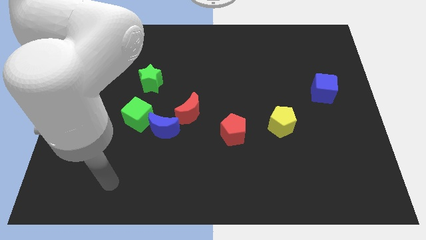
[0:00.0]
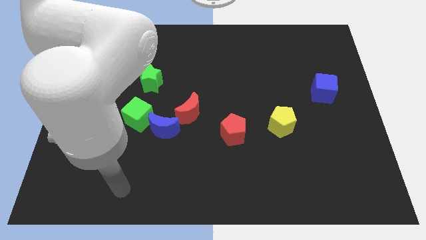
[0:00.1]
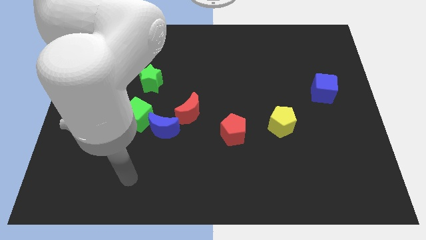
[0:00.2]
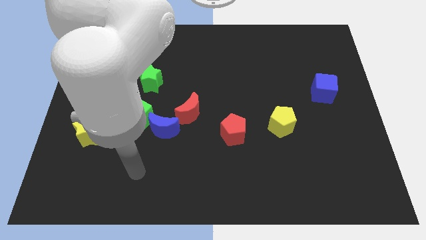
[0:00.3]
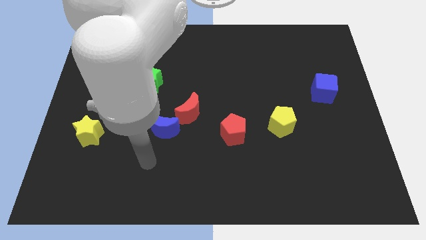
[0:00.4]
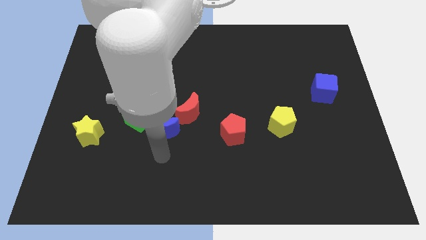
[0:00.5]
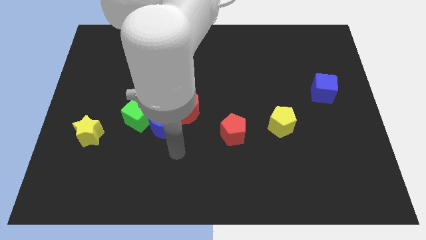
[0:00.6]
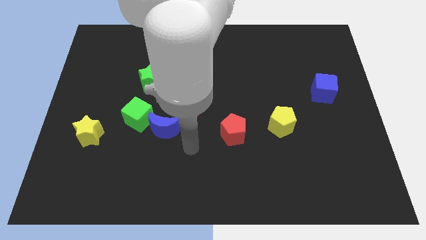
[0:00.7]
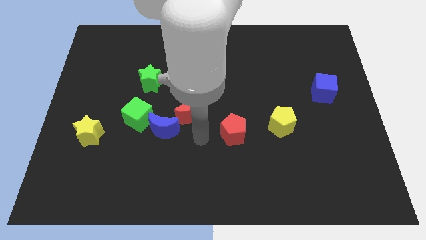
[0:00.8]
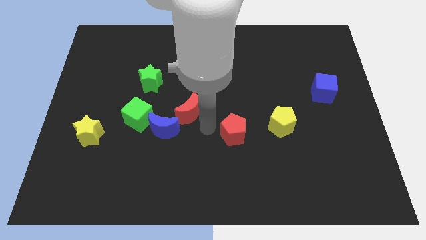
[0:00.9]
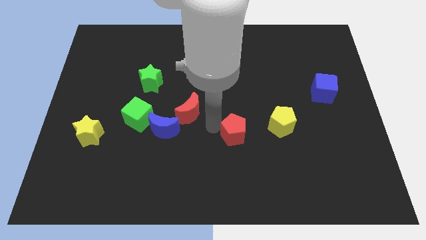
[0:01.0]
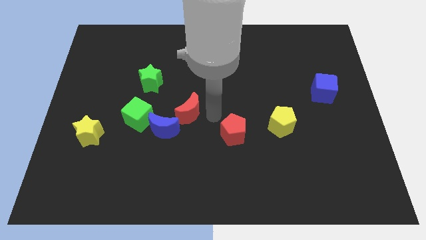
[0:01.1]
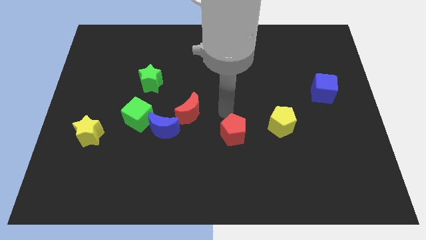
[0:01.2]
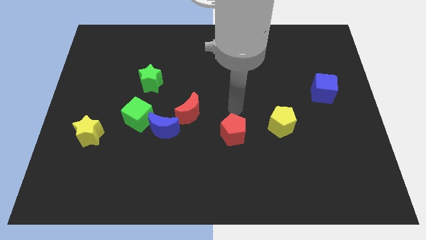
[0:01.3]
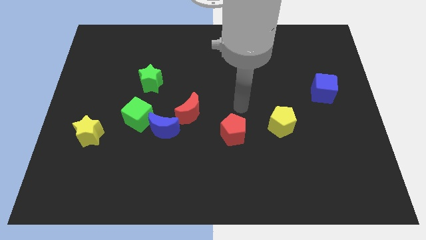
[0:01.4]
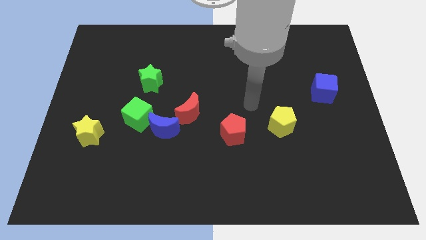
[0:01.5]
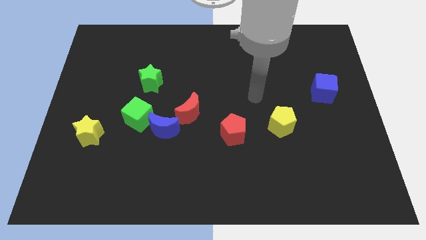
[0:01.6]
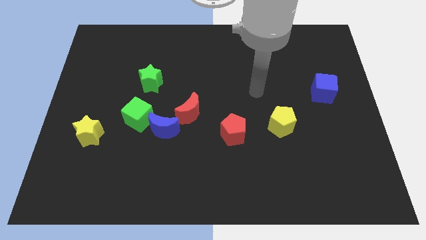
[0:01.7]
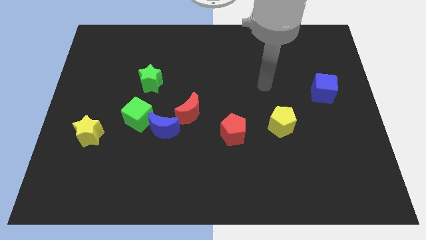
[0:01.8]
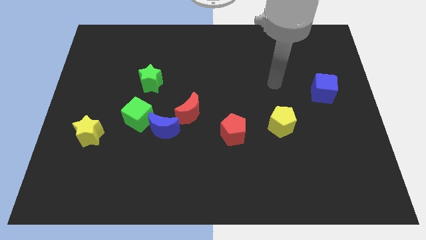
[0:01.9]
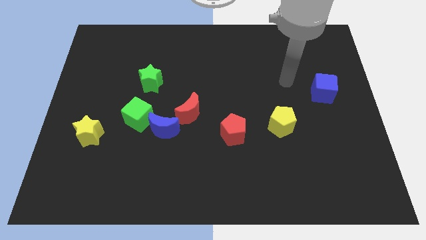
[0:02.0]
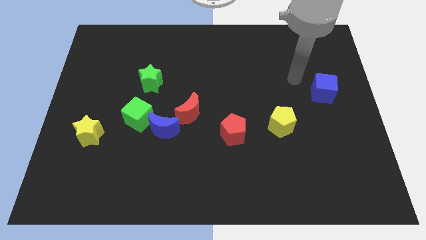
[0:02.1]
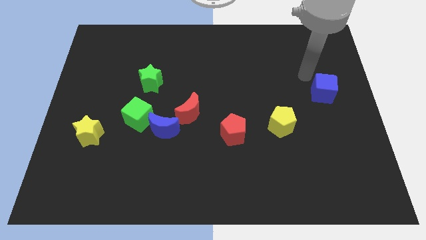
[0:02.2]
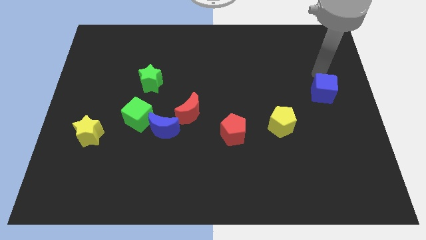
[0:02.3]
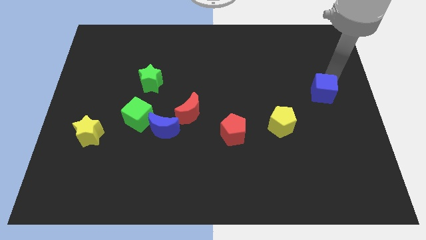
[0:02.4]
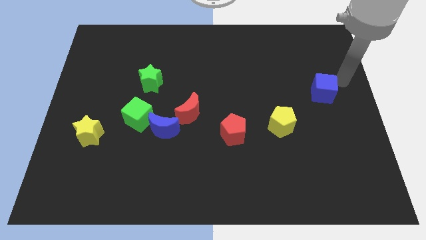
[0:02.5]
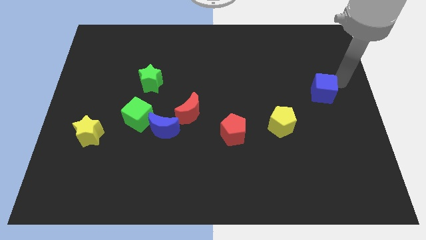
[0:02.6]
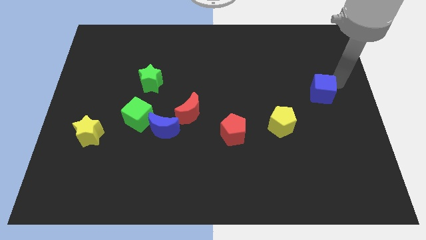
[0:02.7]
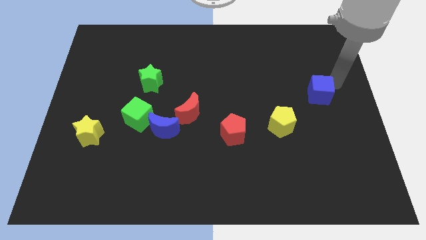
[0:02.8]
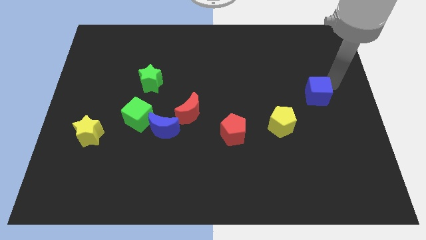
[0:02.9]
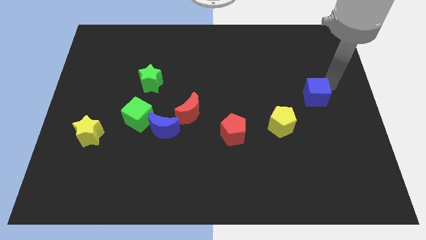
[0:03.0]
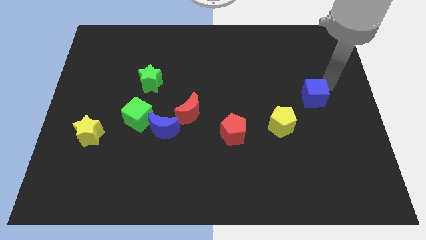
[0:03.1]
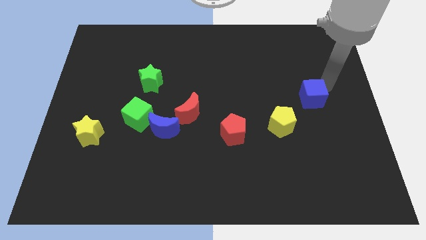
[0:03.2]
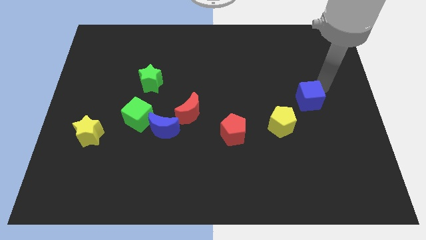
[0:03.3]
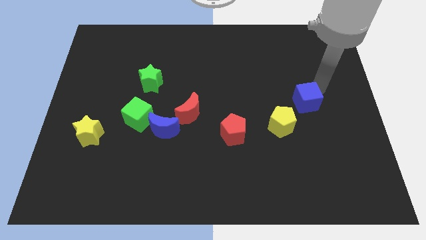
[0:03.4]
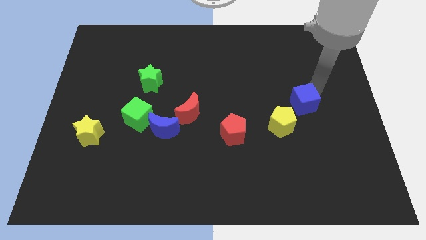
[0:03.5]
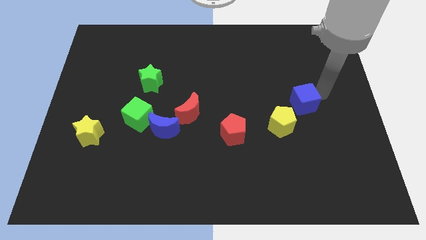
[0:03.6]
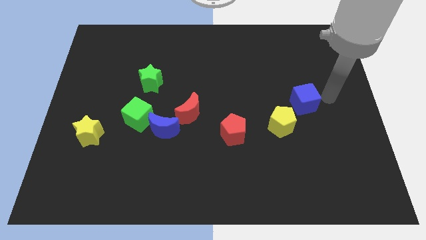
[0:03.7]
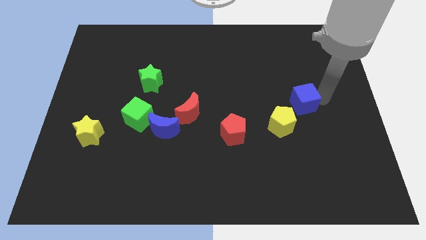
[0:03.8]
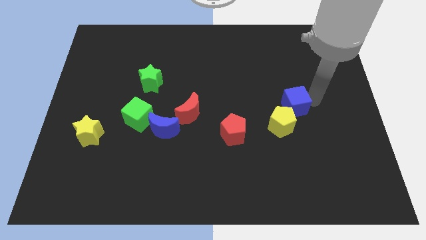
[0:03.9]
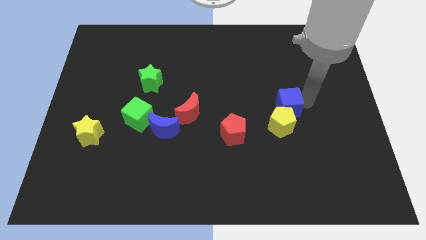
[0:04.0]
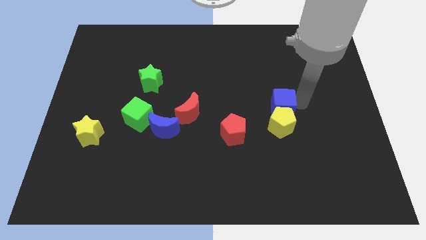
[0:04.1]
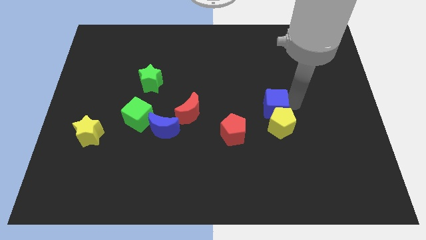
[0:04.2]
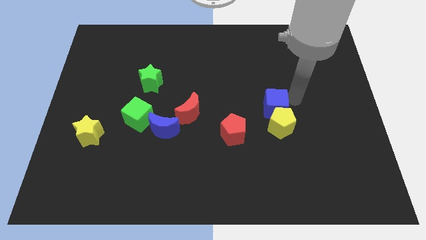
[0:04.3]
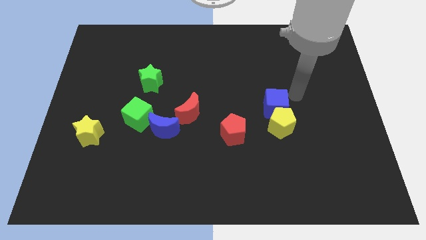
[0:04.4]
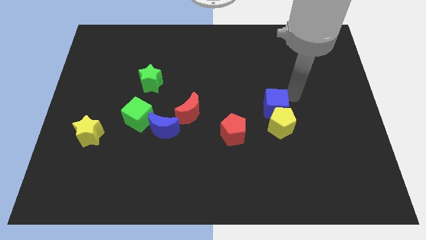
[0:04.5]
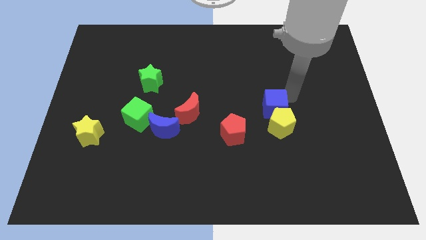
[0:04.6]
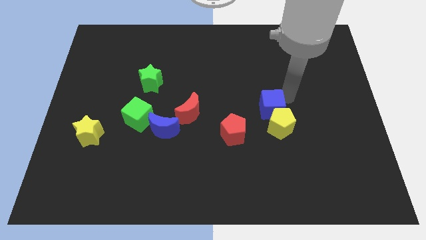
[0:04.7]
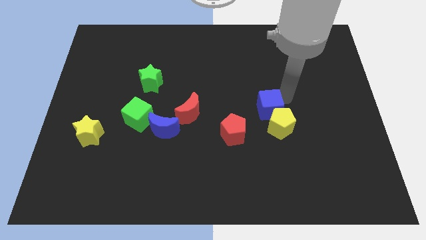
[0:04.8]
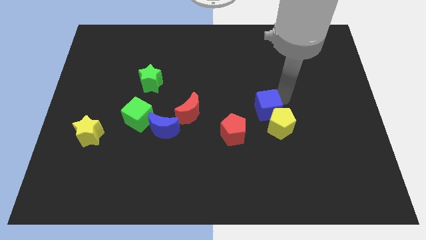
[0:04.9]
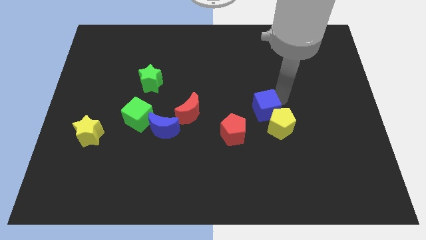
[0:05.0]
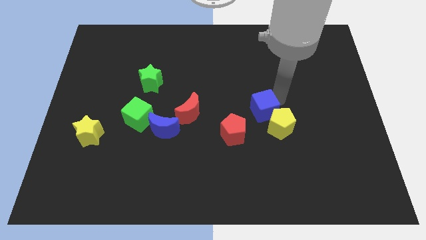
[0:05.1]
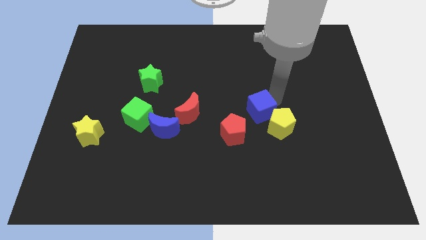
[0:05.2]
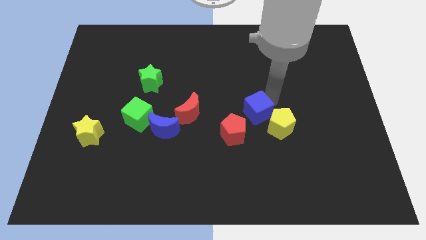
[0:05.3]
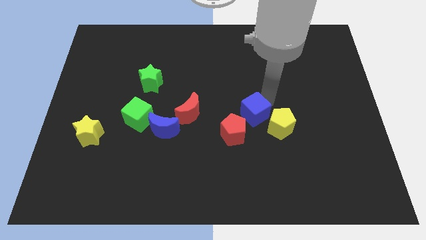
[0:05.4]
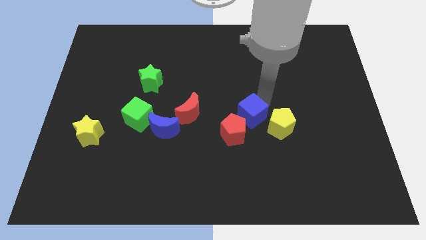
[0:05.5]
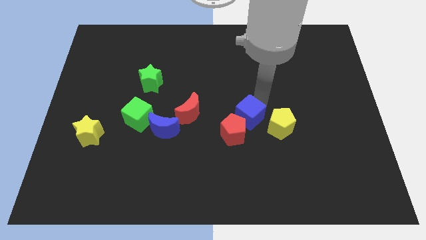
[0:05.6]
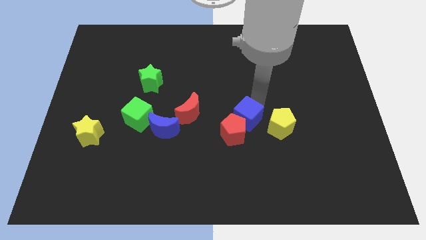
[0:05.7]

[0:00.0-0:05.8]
push the blue cube towards the red pentagon

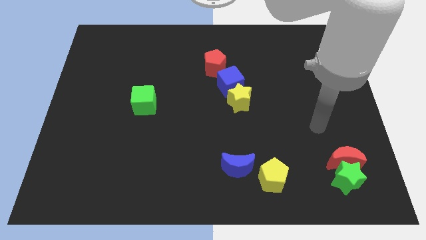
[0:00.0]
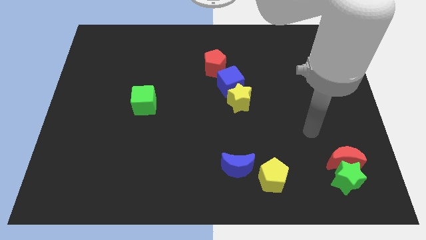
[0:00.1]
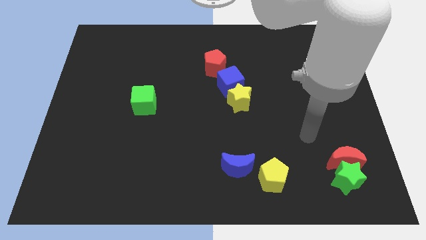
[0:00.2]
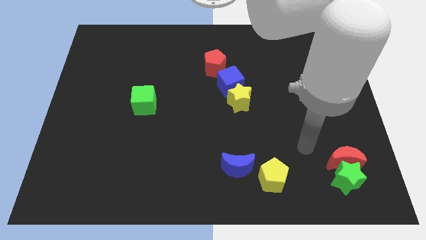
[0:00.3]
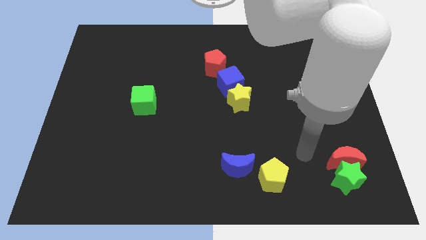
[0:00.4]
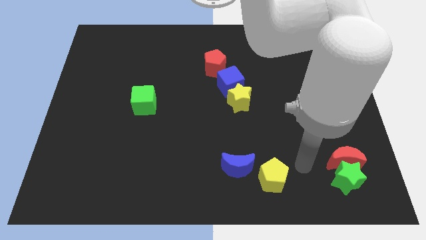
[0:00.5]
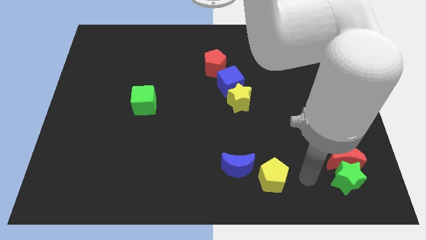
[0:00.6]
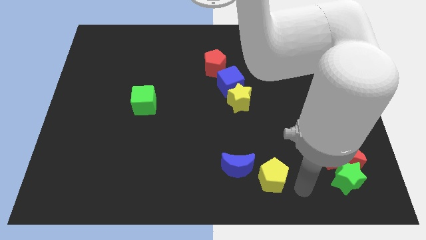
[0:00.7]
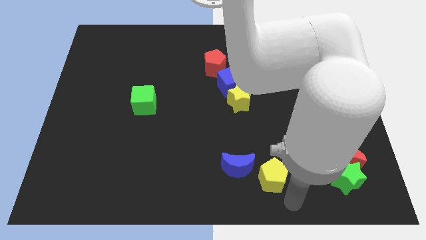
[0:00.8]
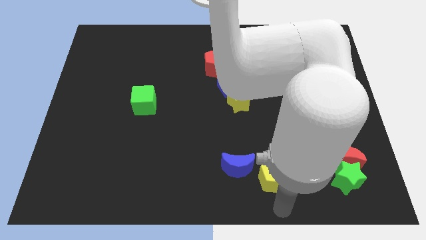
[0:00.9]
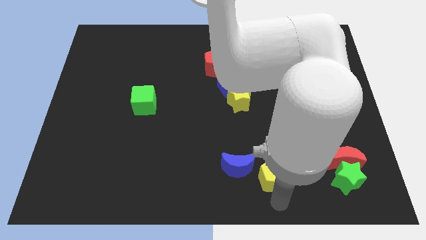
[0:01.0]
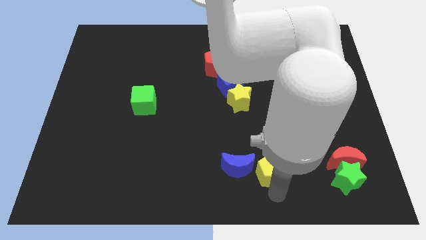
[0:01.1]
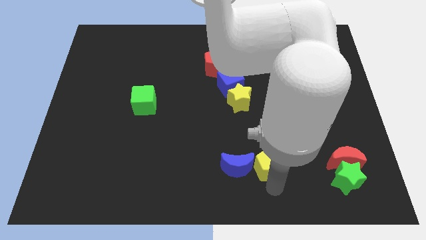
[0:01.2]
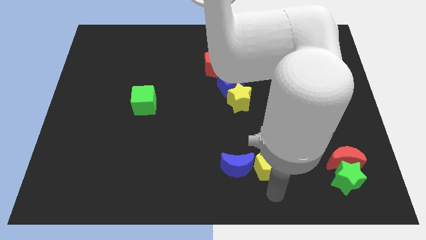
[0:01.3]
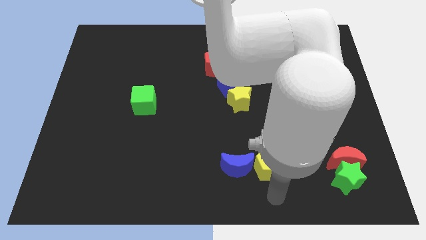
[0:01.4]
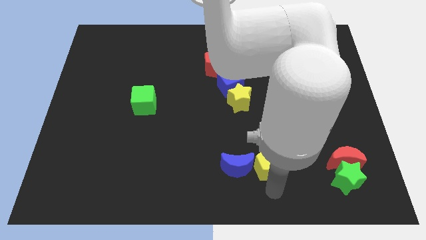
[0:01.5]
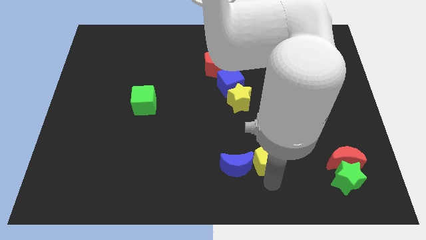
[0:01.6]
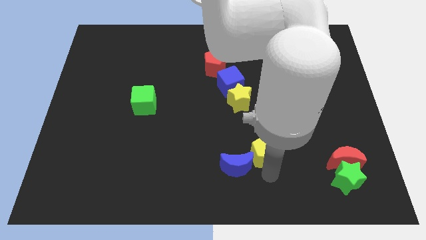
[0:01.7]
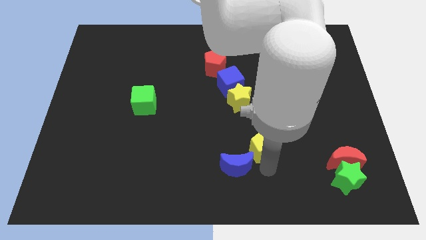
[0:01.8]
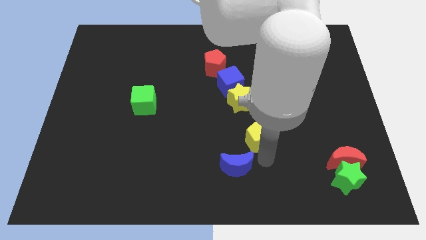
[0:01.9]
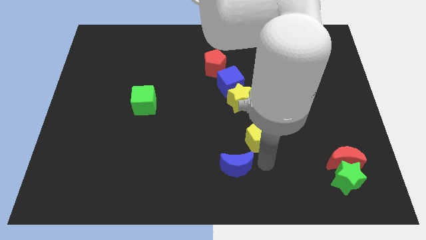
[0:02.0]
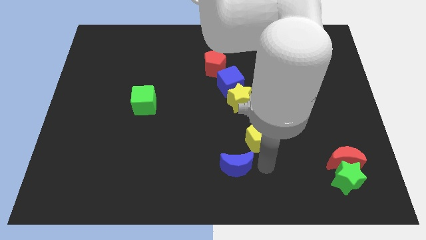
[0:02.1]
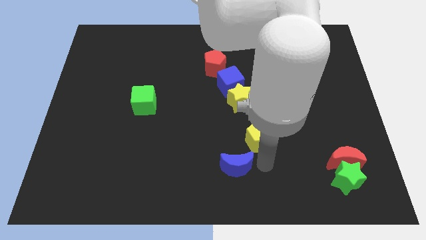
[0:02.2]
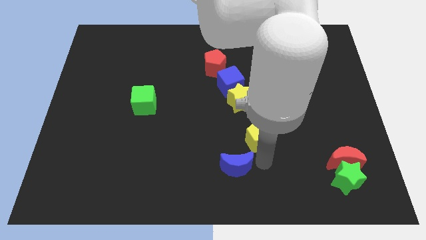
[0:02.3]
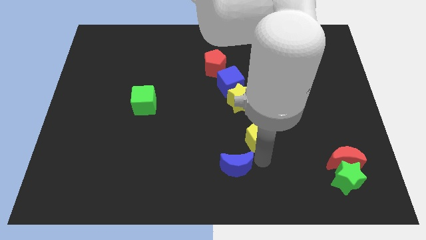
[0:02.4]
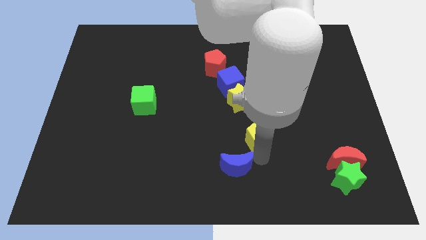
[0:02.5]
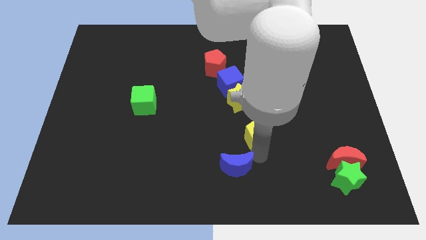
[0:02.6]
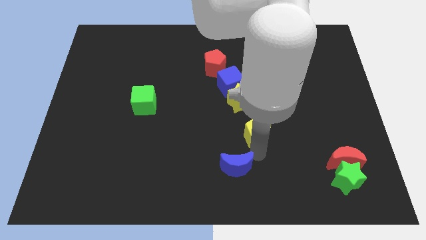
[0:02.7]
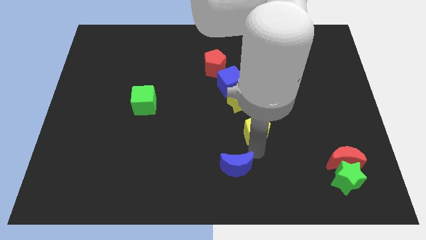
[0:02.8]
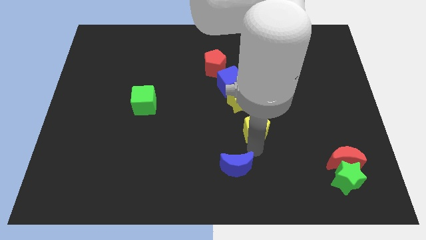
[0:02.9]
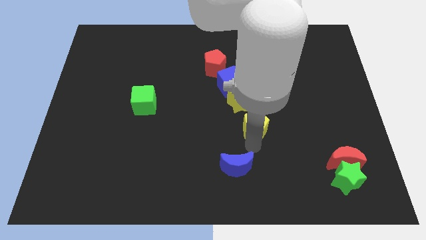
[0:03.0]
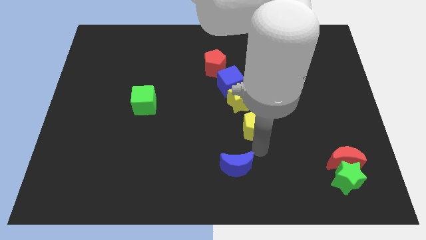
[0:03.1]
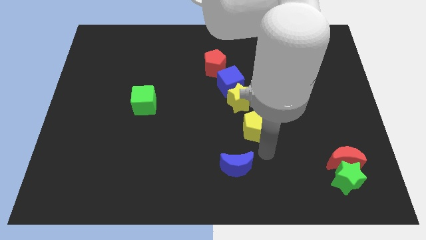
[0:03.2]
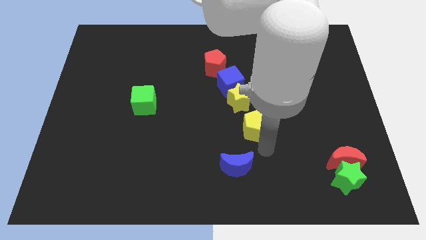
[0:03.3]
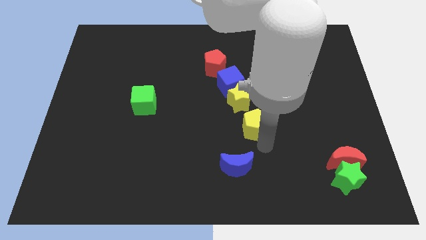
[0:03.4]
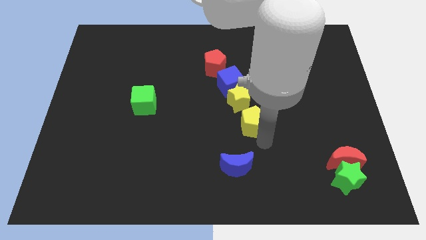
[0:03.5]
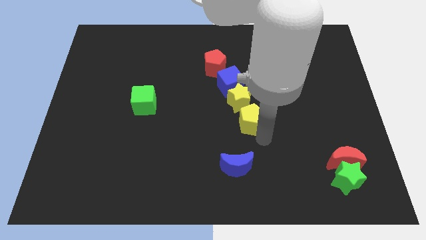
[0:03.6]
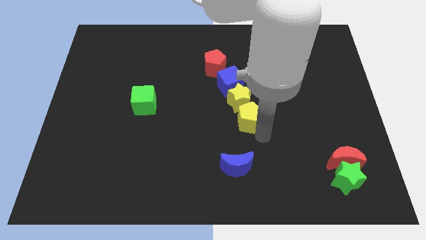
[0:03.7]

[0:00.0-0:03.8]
push the yellow pentagon next to the yellow star
